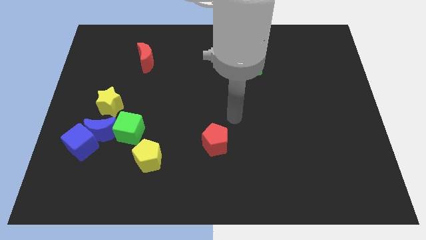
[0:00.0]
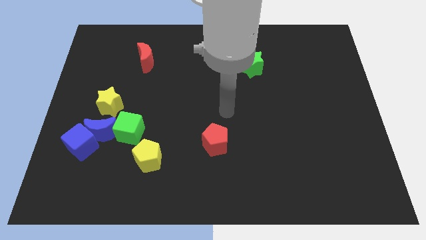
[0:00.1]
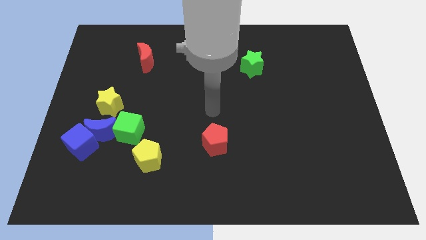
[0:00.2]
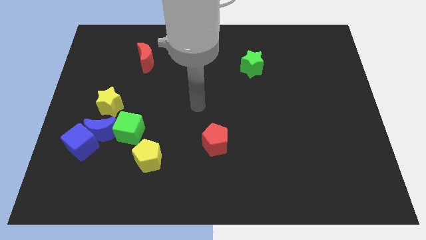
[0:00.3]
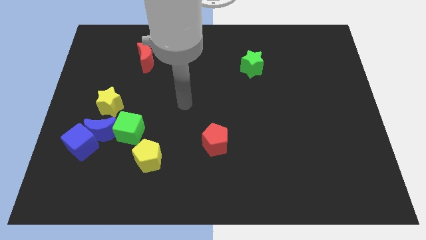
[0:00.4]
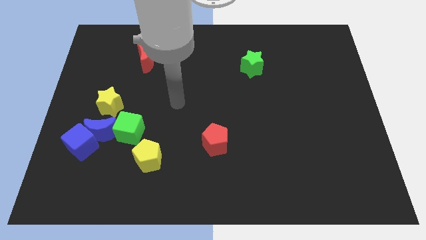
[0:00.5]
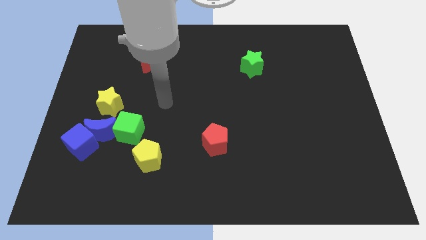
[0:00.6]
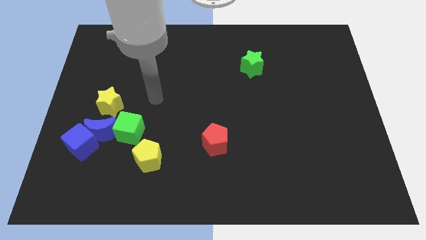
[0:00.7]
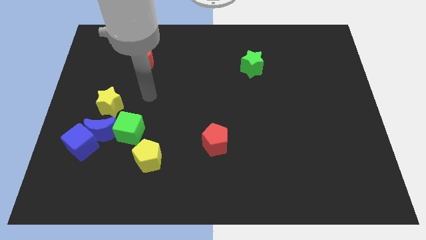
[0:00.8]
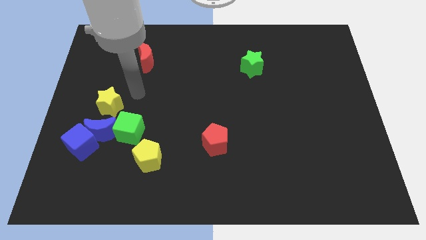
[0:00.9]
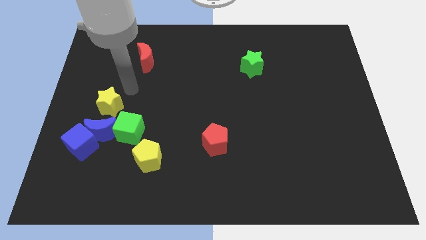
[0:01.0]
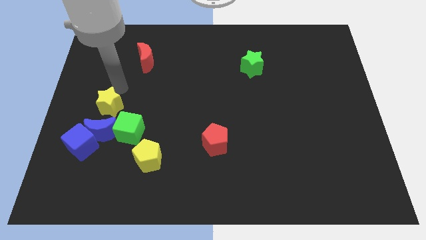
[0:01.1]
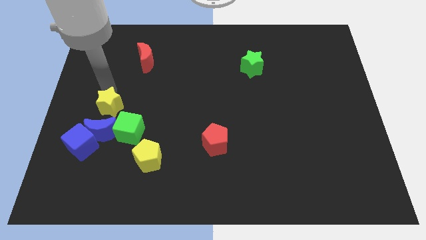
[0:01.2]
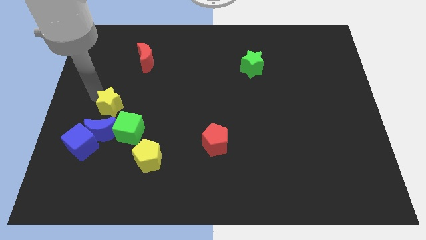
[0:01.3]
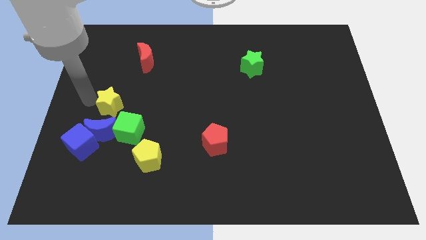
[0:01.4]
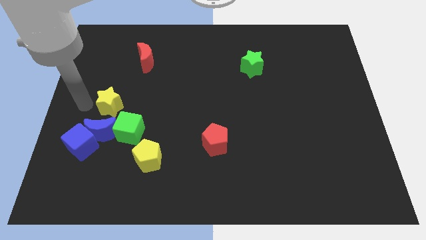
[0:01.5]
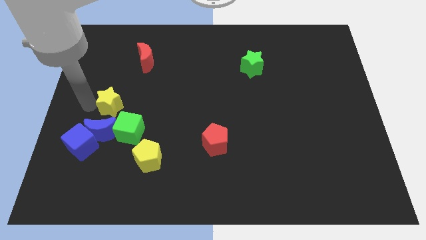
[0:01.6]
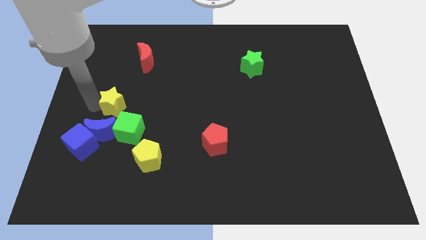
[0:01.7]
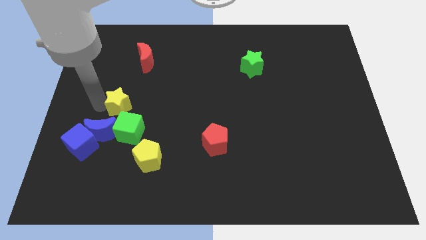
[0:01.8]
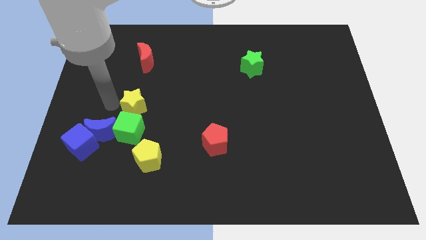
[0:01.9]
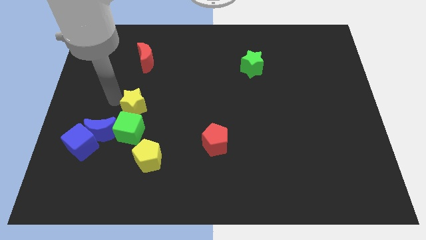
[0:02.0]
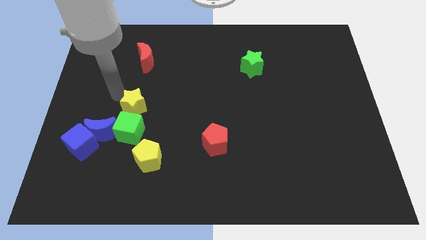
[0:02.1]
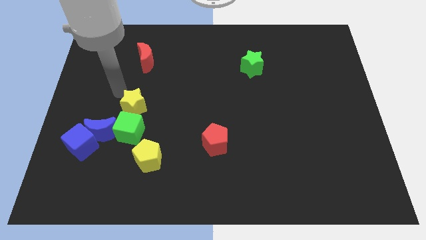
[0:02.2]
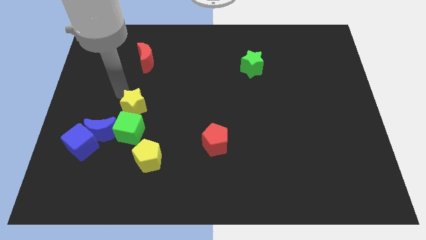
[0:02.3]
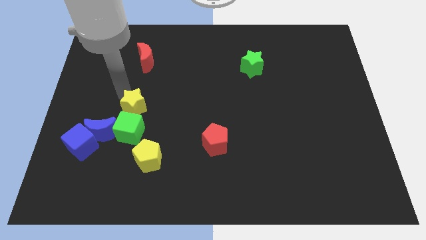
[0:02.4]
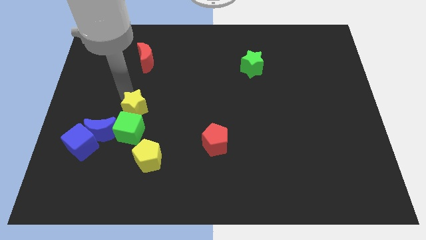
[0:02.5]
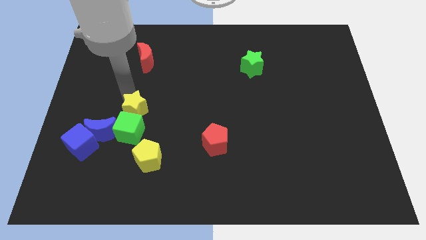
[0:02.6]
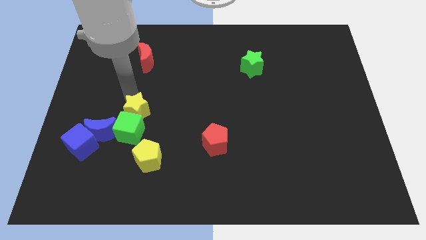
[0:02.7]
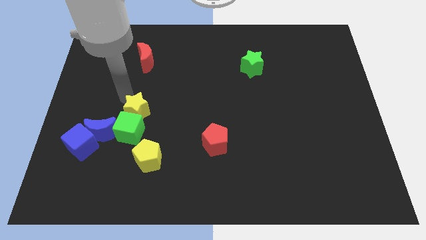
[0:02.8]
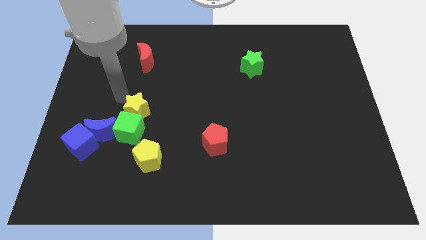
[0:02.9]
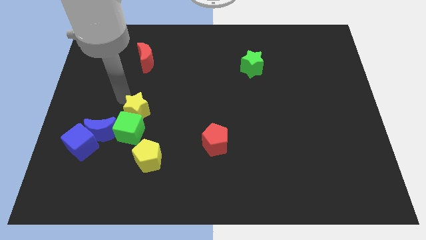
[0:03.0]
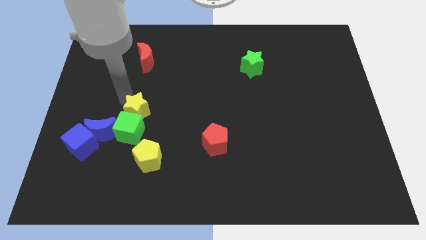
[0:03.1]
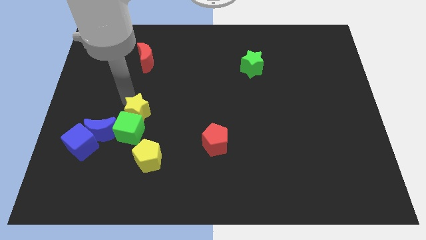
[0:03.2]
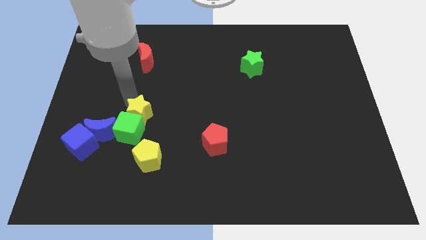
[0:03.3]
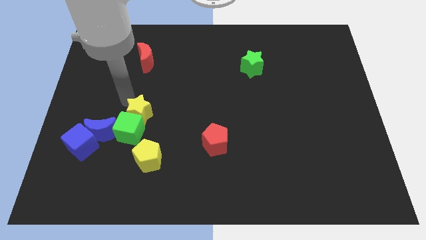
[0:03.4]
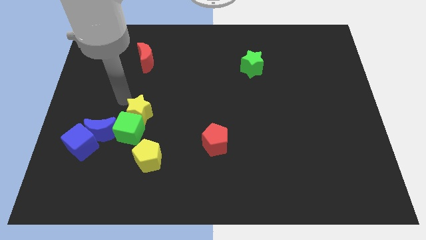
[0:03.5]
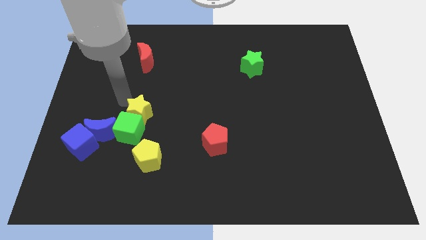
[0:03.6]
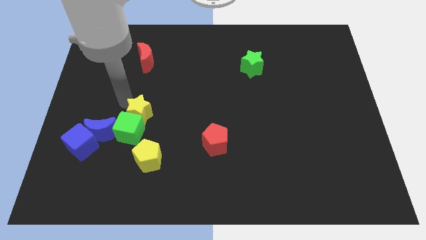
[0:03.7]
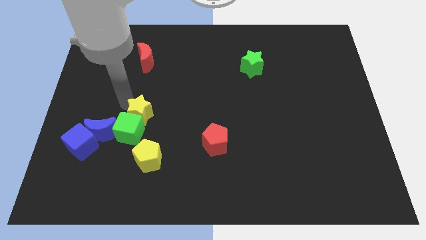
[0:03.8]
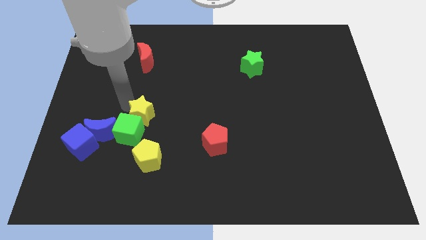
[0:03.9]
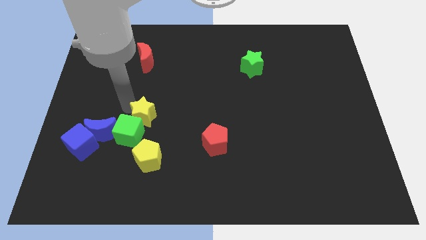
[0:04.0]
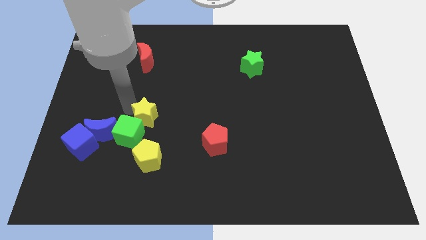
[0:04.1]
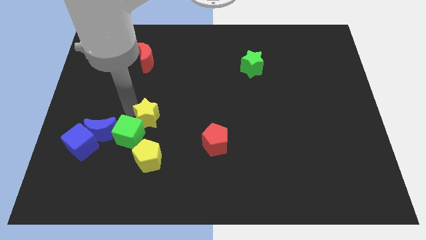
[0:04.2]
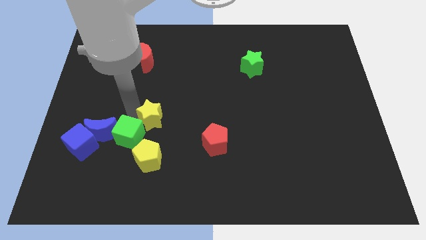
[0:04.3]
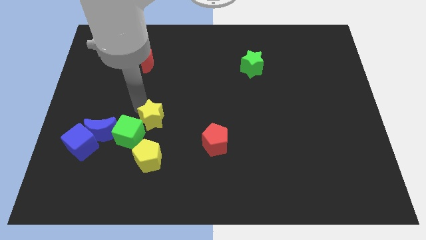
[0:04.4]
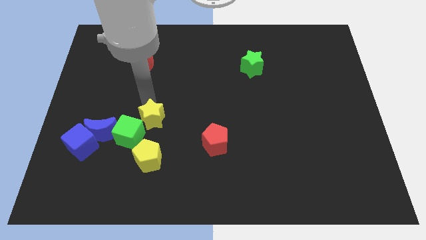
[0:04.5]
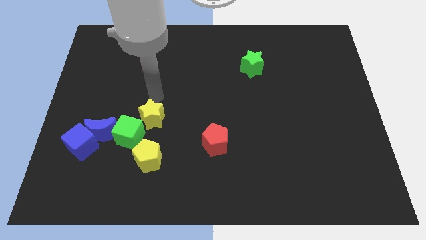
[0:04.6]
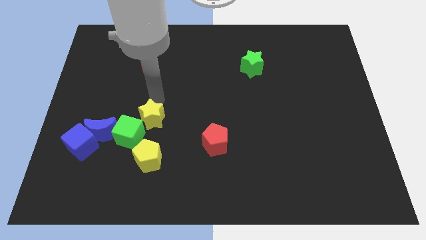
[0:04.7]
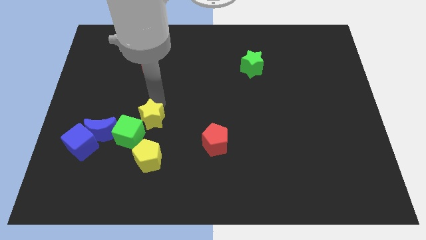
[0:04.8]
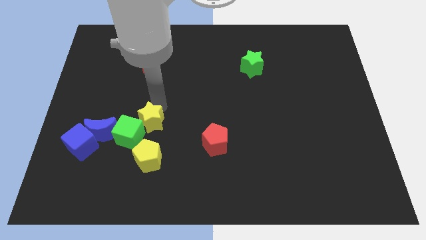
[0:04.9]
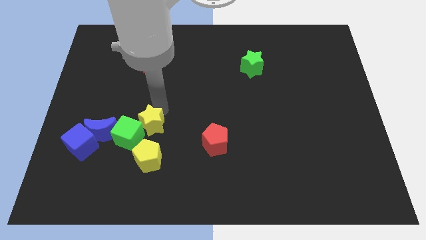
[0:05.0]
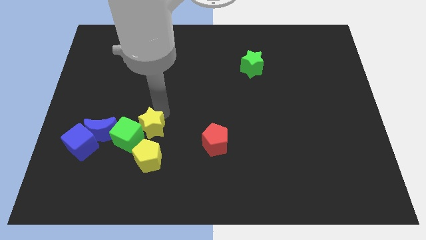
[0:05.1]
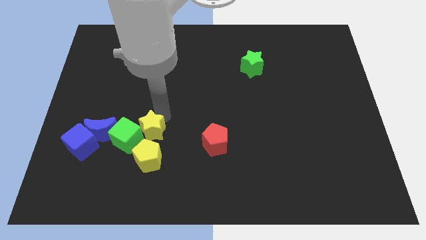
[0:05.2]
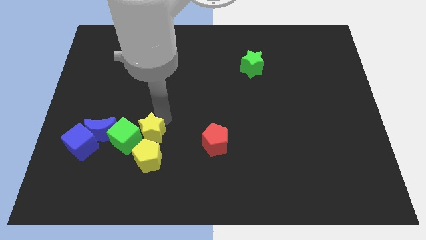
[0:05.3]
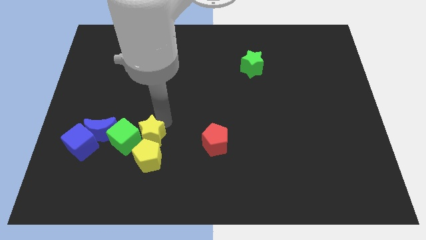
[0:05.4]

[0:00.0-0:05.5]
slide the yellow star towards the yellow pentagon
